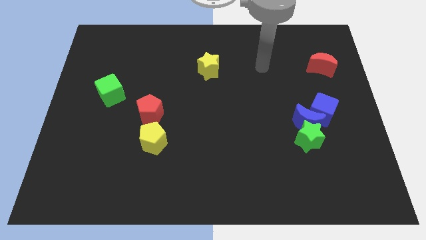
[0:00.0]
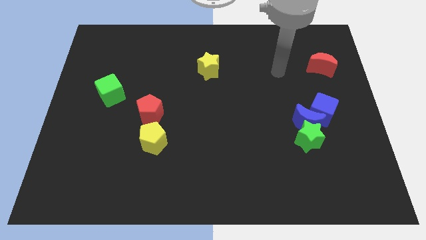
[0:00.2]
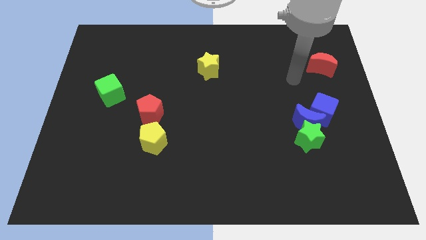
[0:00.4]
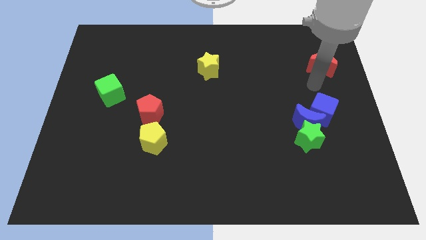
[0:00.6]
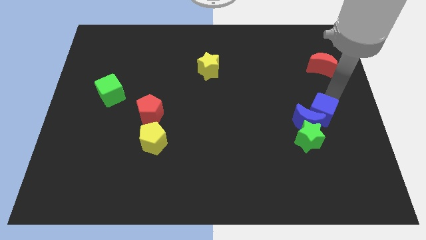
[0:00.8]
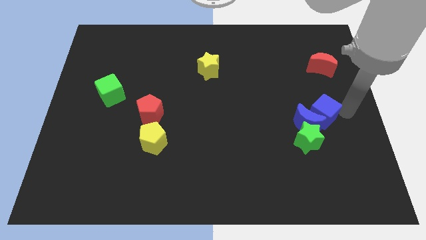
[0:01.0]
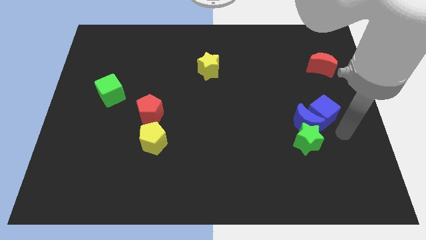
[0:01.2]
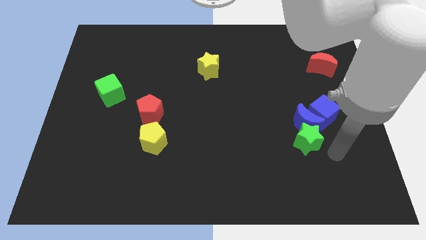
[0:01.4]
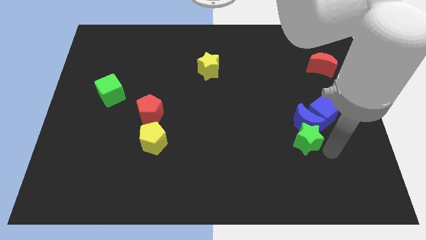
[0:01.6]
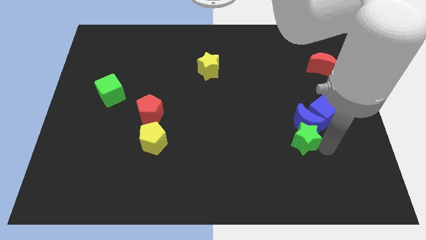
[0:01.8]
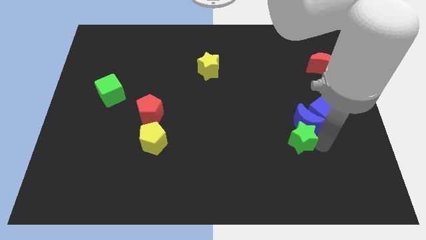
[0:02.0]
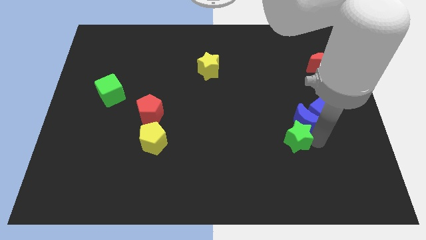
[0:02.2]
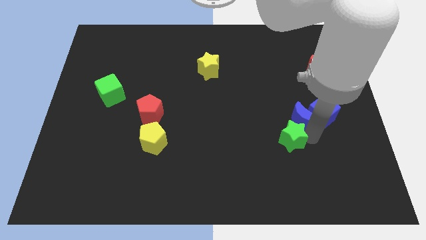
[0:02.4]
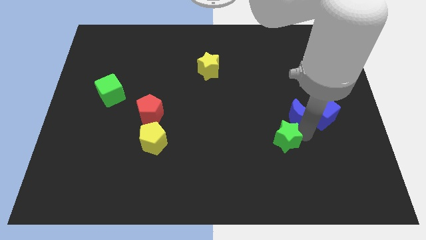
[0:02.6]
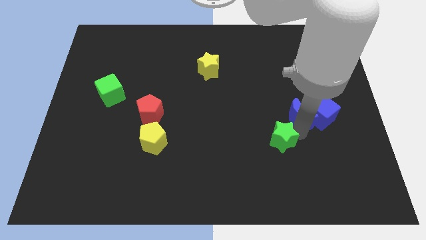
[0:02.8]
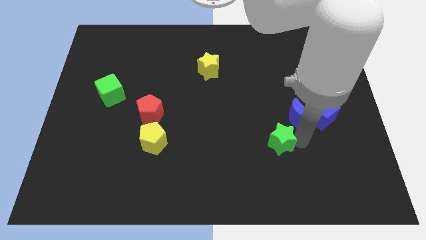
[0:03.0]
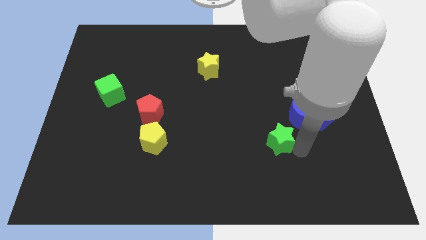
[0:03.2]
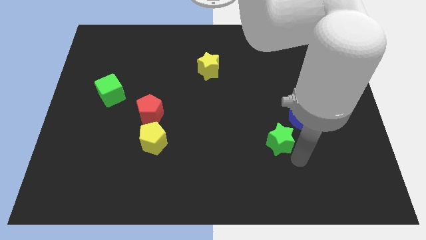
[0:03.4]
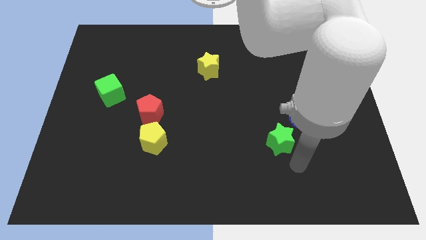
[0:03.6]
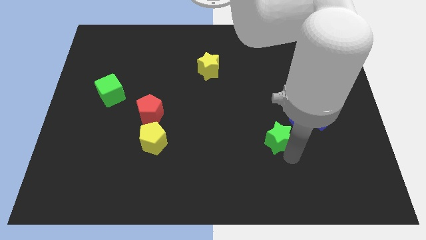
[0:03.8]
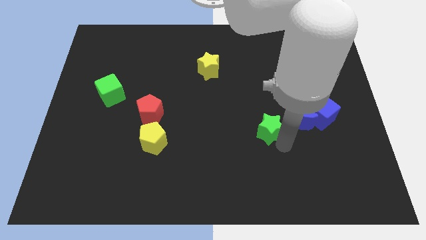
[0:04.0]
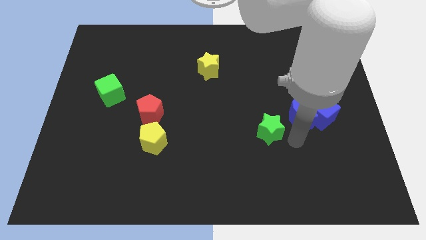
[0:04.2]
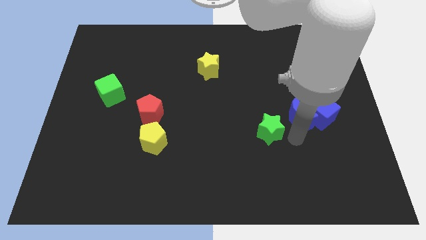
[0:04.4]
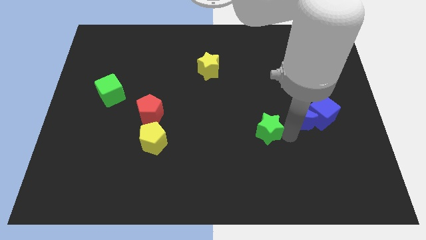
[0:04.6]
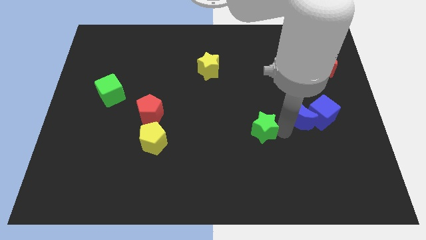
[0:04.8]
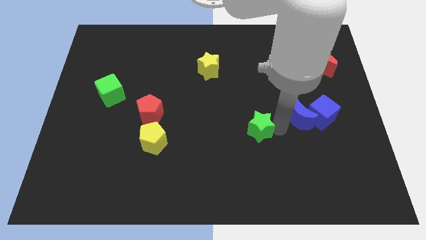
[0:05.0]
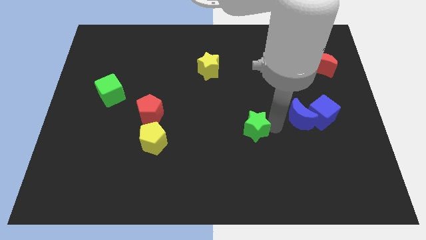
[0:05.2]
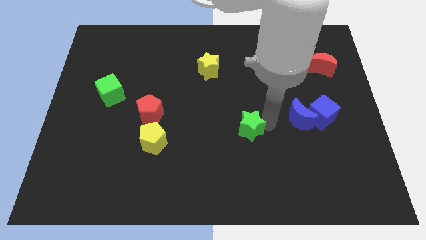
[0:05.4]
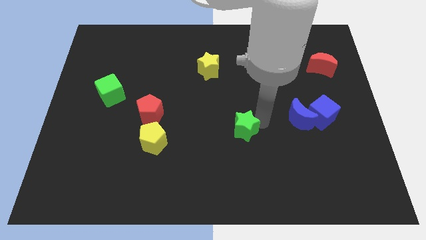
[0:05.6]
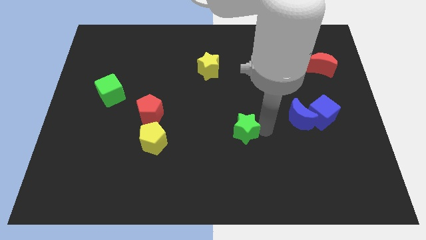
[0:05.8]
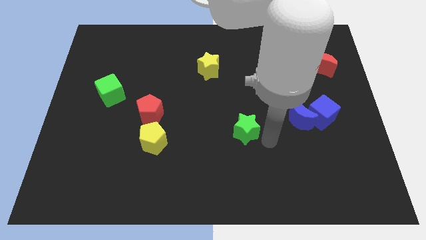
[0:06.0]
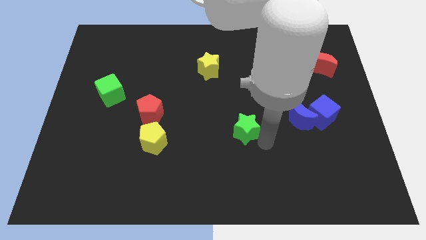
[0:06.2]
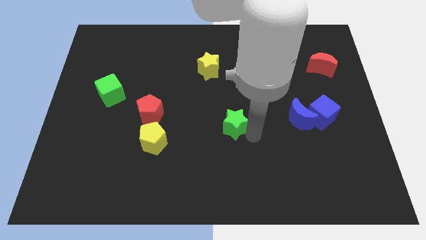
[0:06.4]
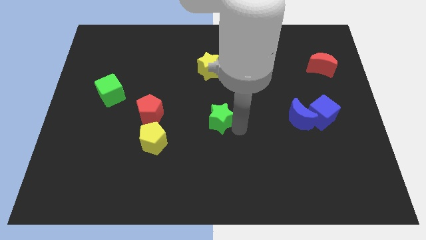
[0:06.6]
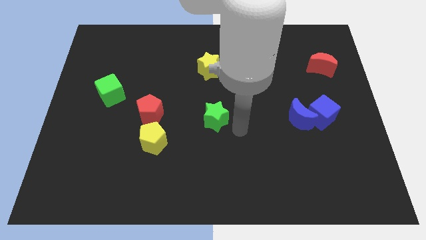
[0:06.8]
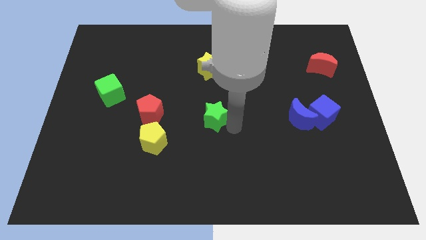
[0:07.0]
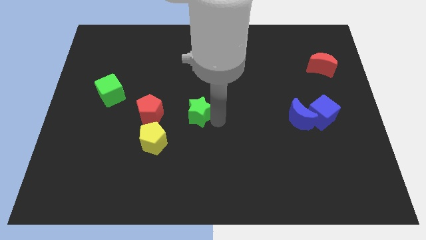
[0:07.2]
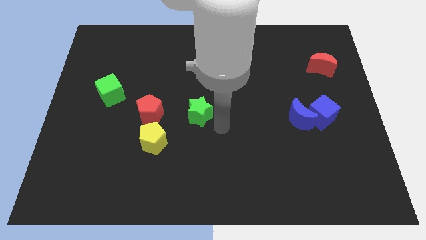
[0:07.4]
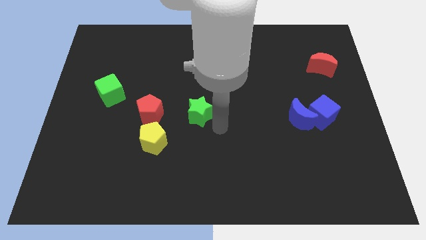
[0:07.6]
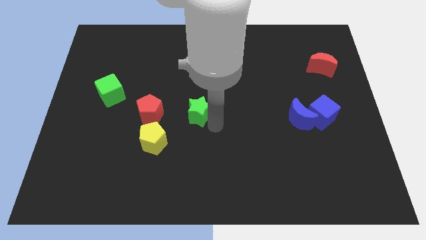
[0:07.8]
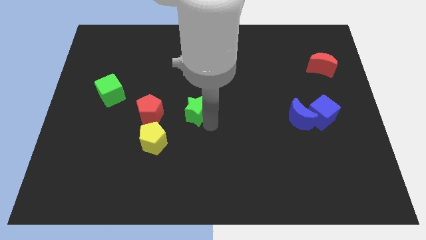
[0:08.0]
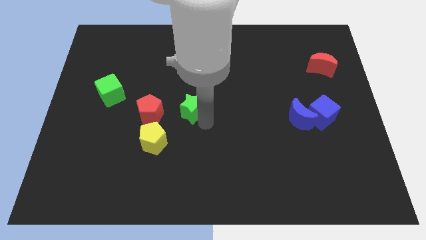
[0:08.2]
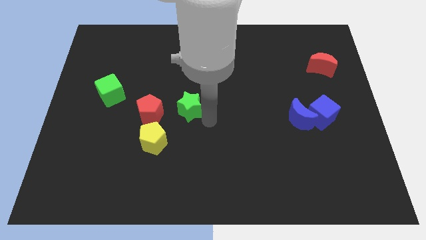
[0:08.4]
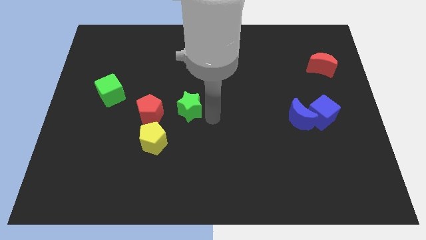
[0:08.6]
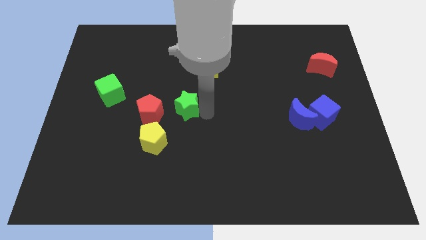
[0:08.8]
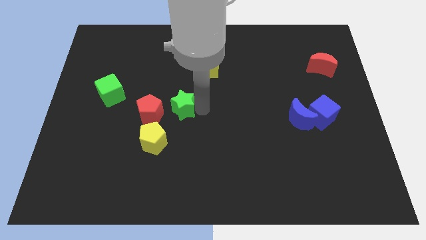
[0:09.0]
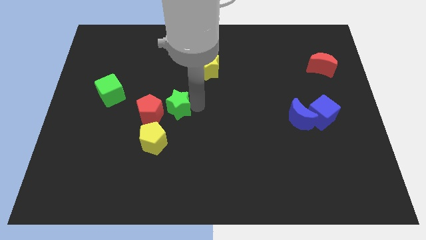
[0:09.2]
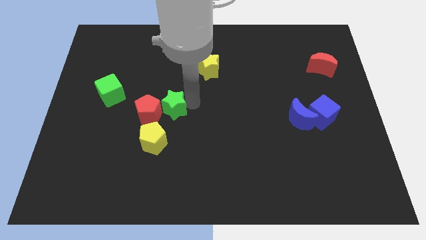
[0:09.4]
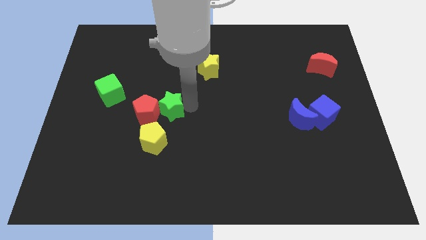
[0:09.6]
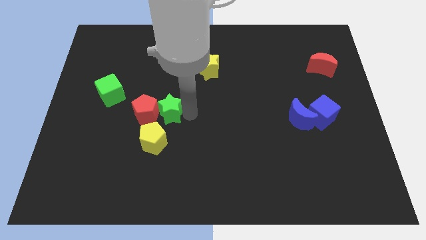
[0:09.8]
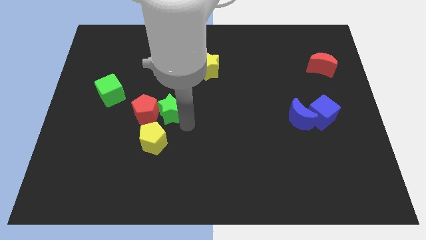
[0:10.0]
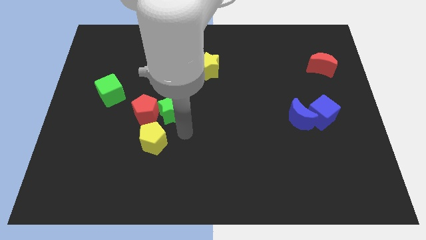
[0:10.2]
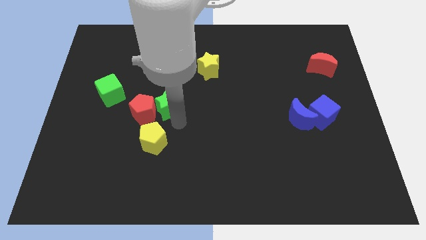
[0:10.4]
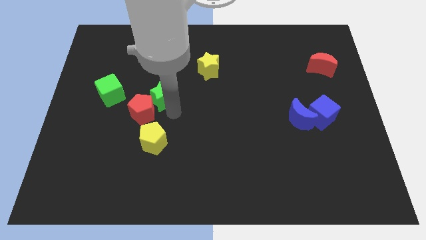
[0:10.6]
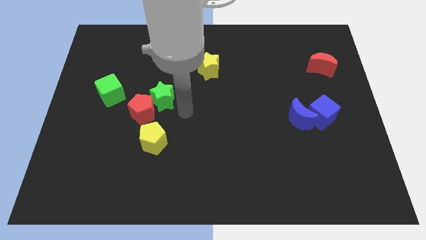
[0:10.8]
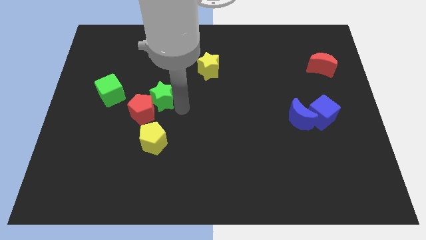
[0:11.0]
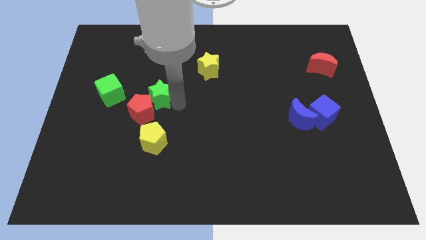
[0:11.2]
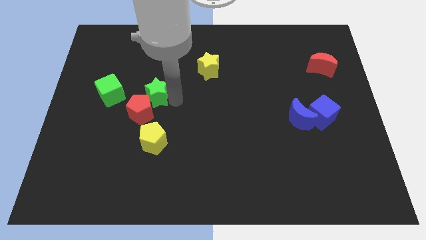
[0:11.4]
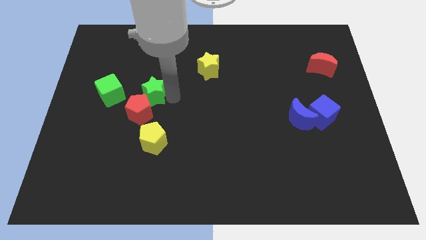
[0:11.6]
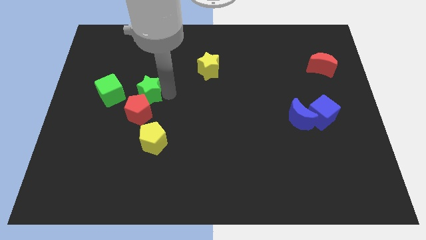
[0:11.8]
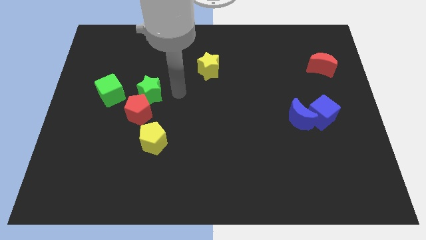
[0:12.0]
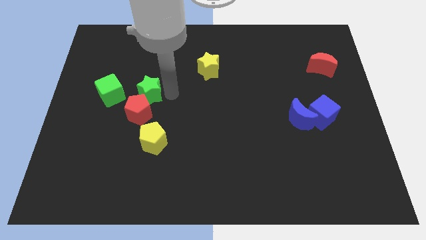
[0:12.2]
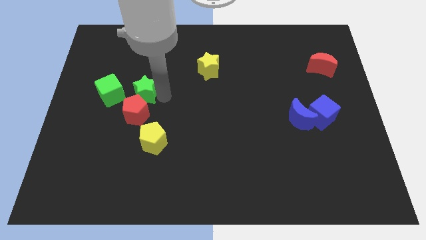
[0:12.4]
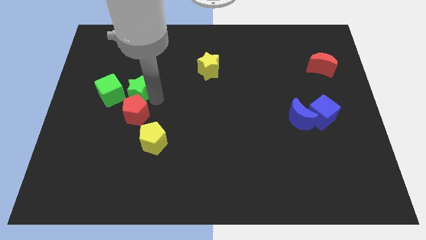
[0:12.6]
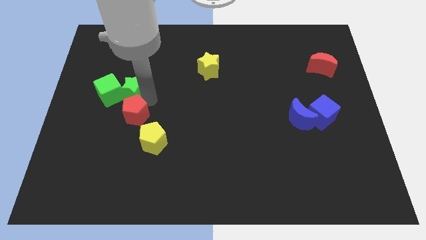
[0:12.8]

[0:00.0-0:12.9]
move the green star to the green cube
